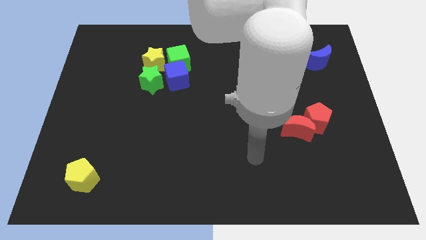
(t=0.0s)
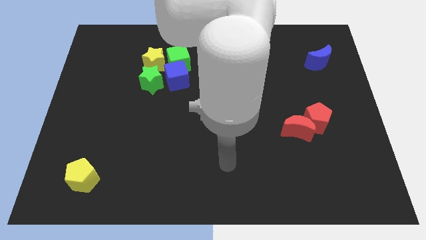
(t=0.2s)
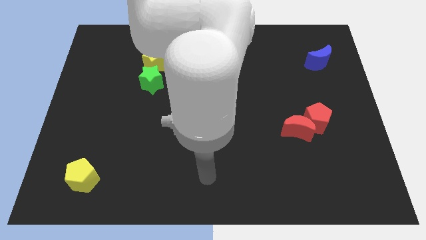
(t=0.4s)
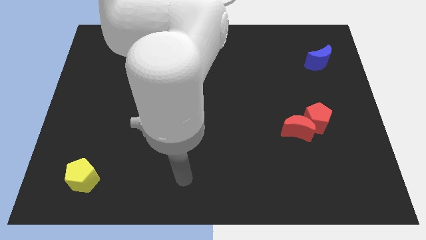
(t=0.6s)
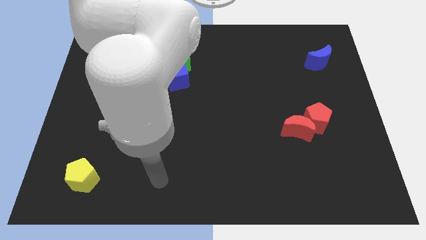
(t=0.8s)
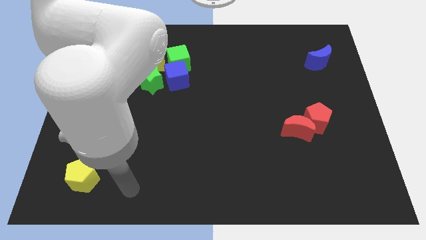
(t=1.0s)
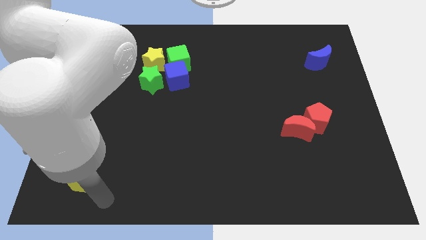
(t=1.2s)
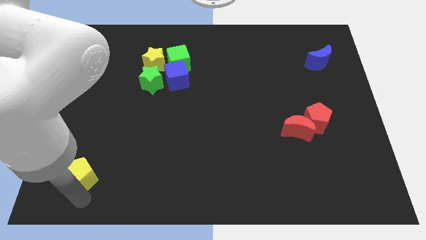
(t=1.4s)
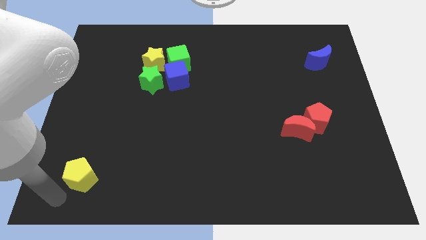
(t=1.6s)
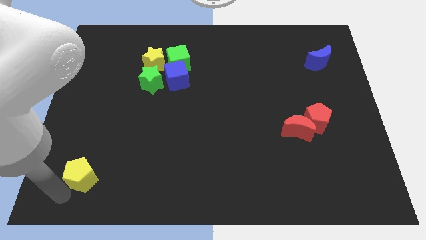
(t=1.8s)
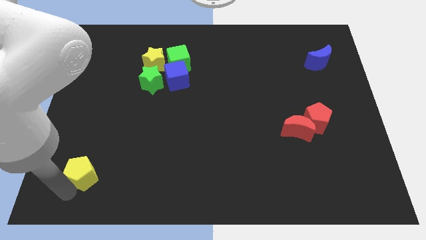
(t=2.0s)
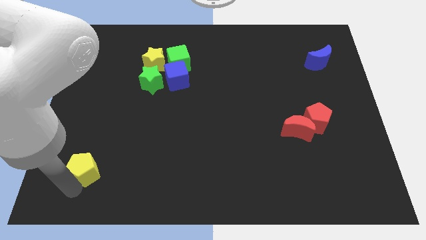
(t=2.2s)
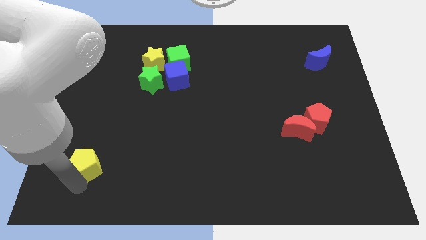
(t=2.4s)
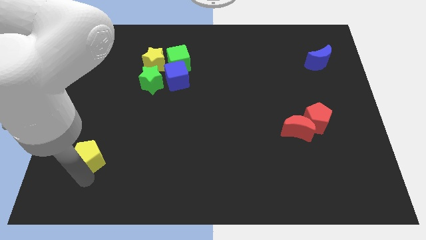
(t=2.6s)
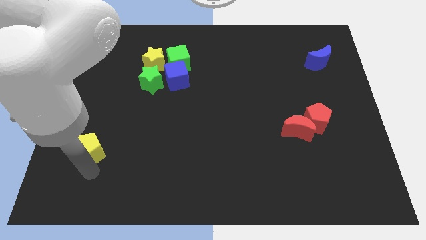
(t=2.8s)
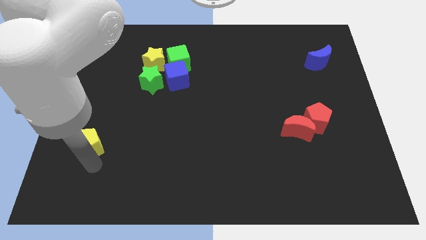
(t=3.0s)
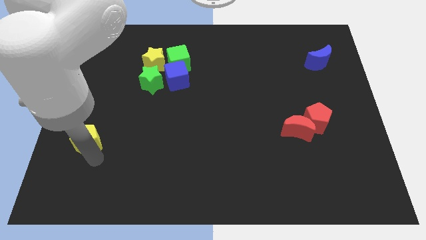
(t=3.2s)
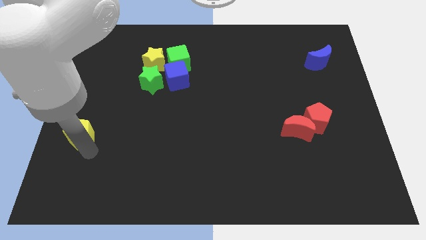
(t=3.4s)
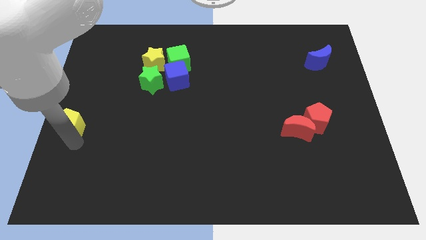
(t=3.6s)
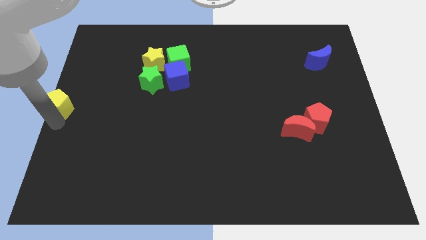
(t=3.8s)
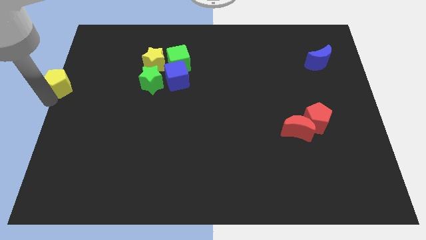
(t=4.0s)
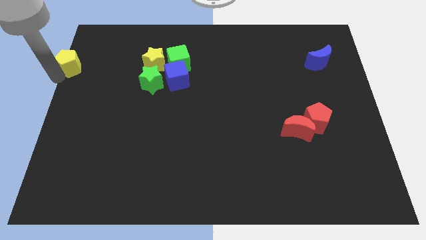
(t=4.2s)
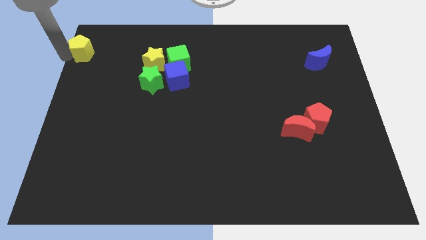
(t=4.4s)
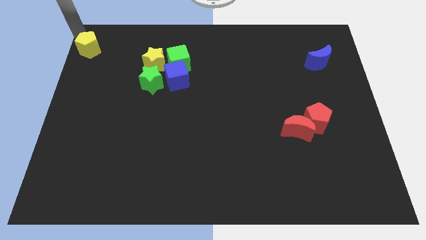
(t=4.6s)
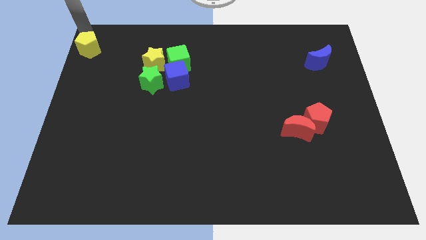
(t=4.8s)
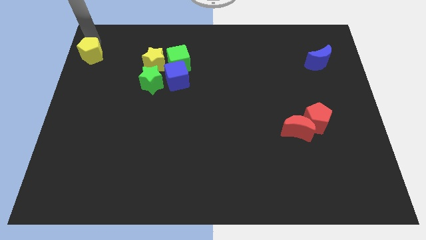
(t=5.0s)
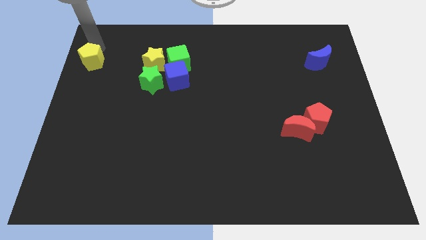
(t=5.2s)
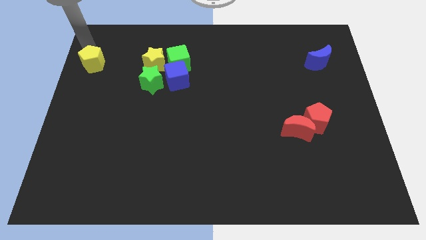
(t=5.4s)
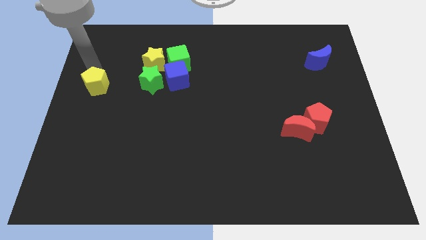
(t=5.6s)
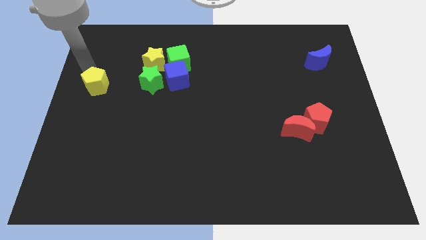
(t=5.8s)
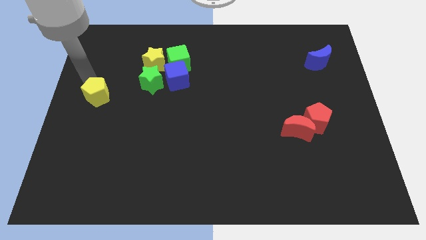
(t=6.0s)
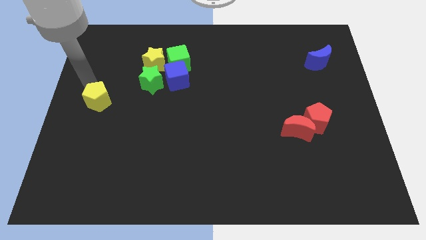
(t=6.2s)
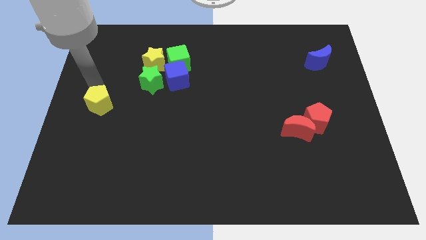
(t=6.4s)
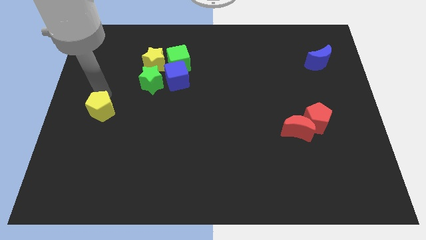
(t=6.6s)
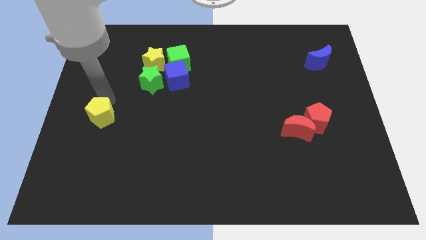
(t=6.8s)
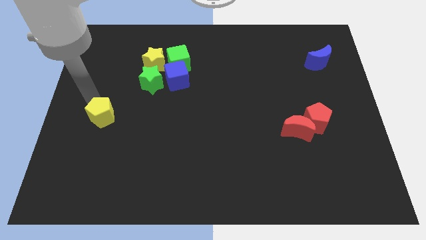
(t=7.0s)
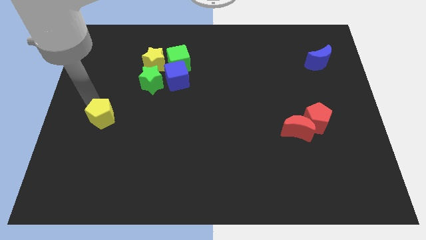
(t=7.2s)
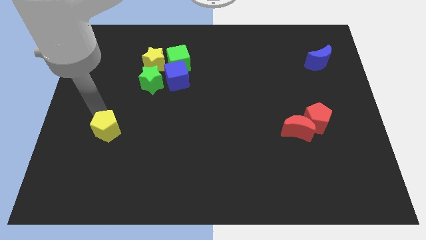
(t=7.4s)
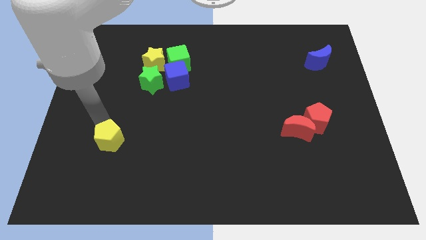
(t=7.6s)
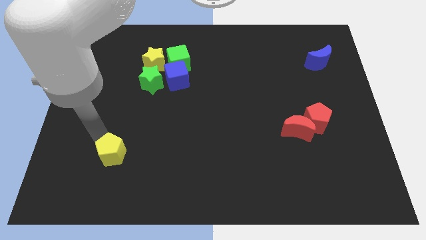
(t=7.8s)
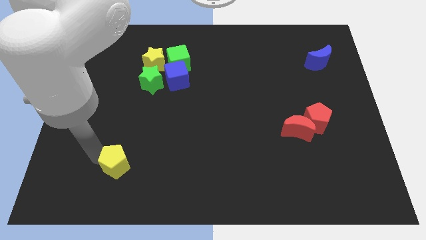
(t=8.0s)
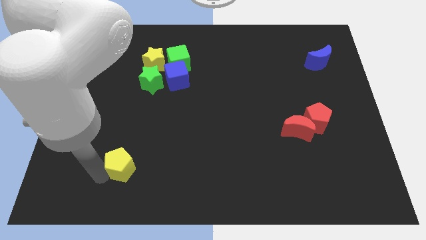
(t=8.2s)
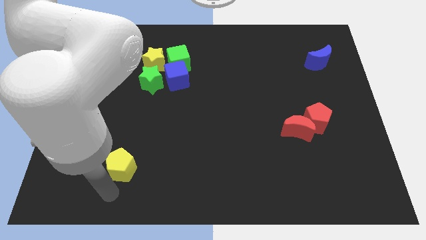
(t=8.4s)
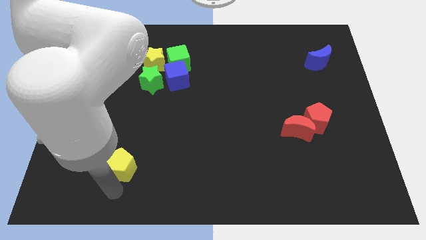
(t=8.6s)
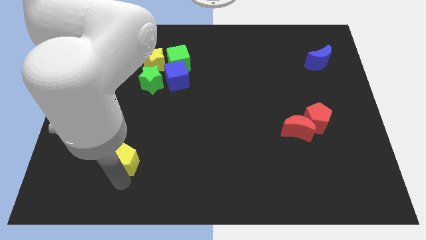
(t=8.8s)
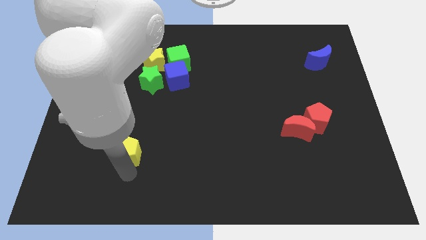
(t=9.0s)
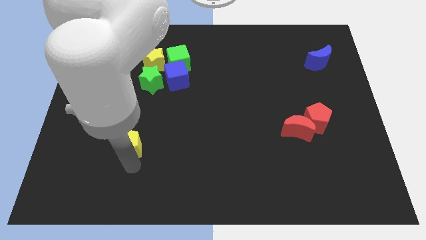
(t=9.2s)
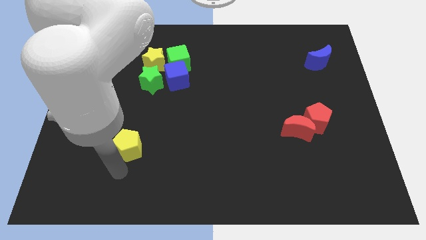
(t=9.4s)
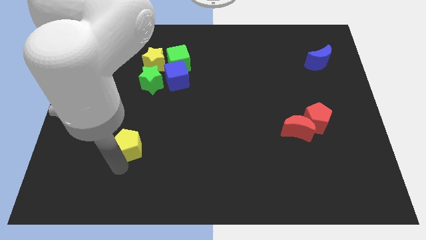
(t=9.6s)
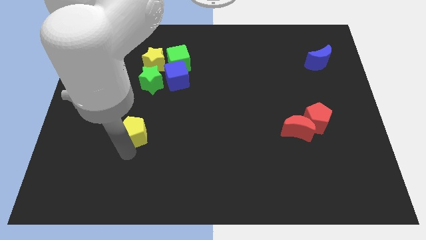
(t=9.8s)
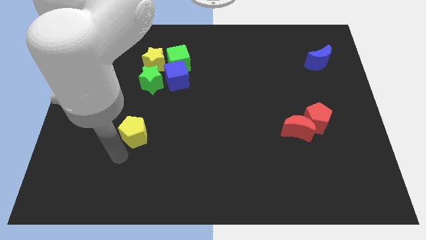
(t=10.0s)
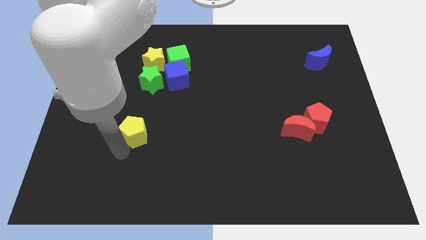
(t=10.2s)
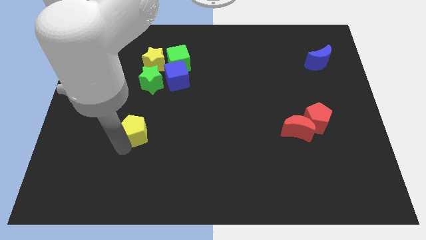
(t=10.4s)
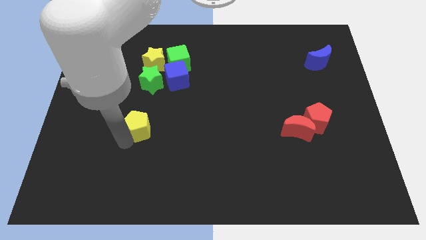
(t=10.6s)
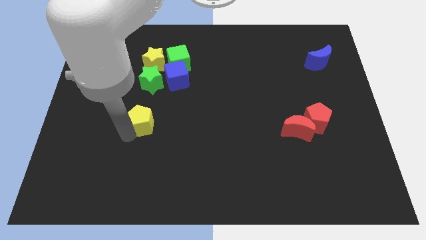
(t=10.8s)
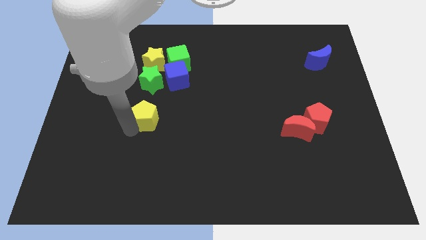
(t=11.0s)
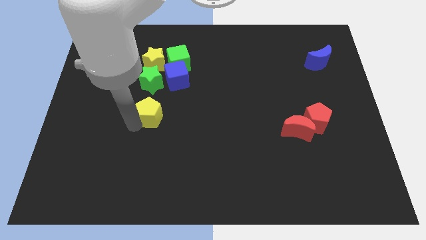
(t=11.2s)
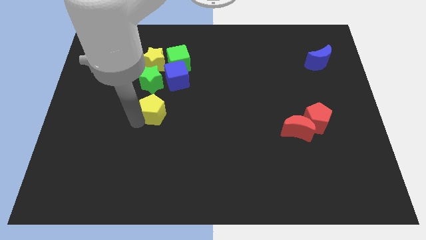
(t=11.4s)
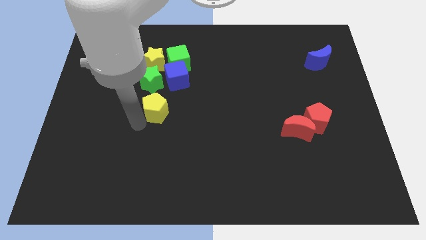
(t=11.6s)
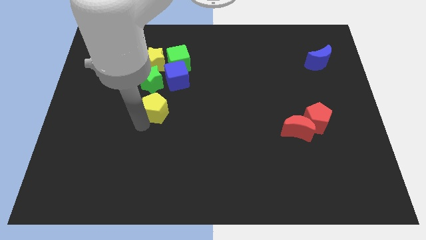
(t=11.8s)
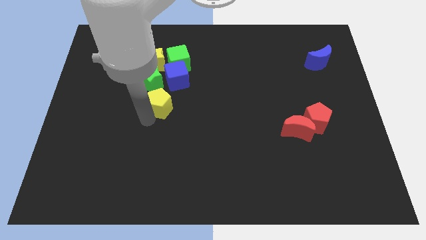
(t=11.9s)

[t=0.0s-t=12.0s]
move the yellow pentagon to the bottom side of the green cube
